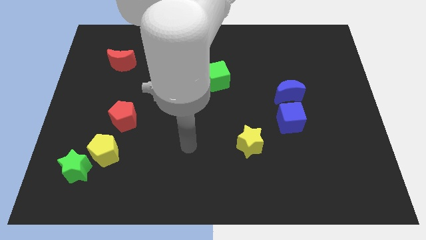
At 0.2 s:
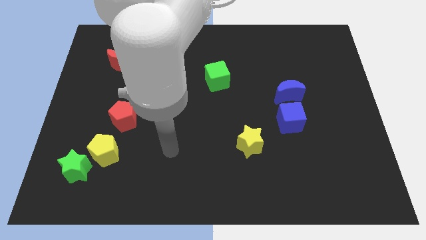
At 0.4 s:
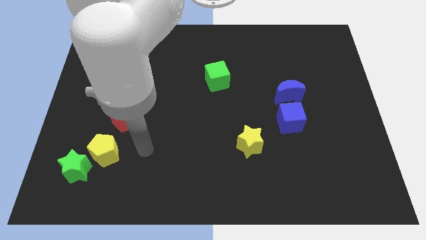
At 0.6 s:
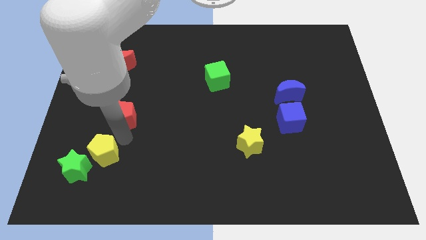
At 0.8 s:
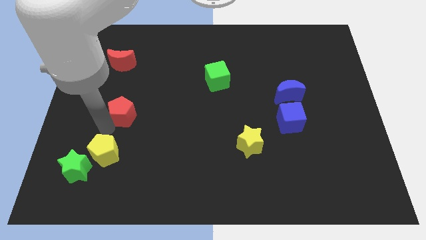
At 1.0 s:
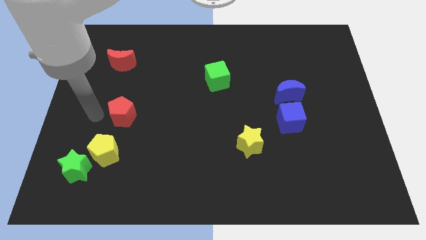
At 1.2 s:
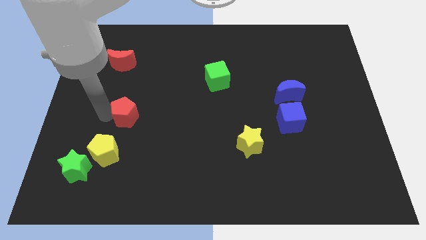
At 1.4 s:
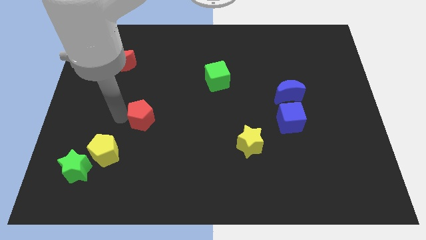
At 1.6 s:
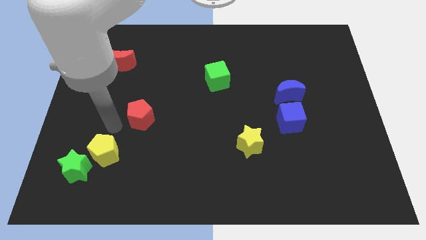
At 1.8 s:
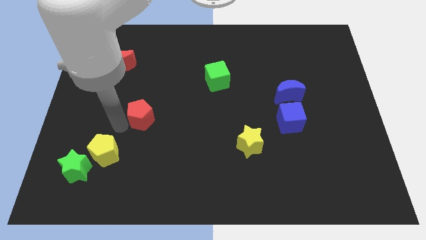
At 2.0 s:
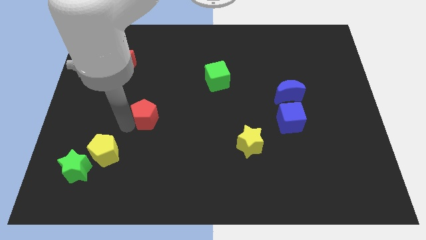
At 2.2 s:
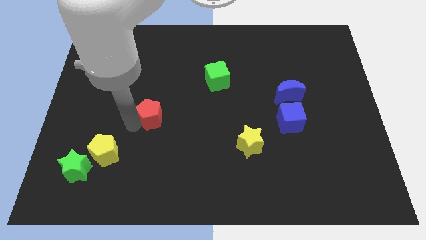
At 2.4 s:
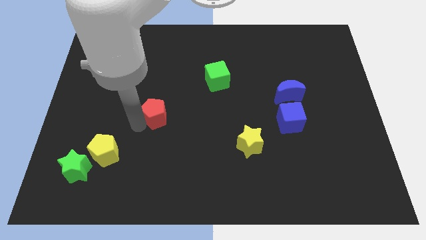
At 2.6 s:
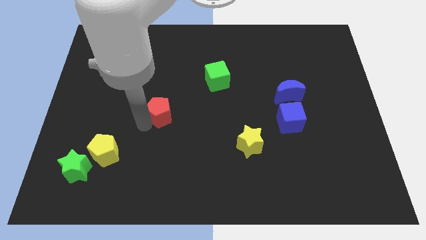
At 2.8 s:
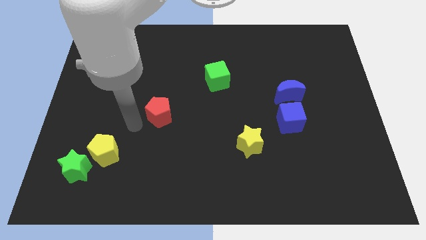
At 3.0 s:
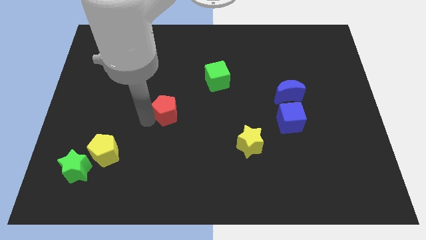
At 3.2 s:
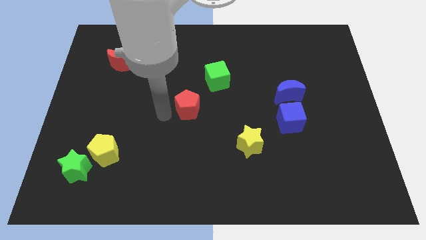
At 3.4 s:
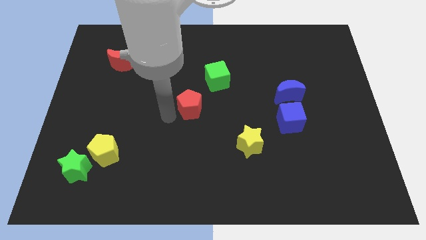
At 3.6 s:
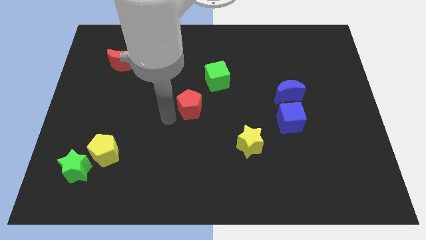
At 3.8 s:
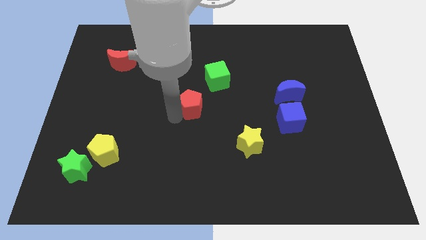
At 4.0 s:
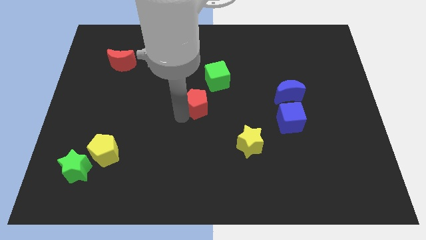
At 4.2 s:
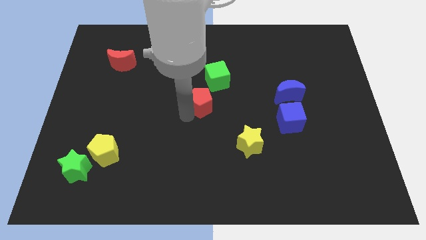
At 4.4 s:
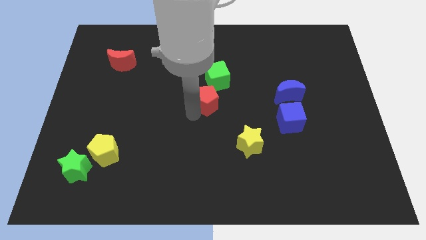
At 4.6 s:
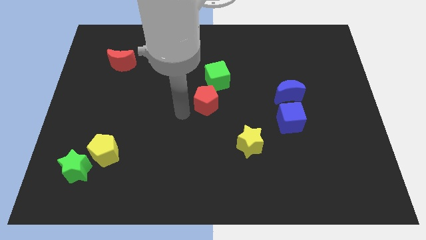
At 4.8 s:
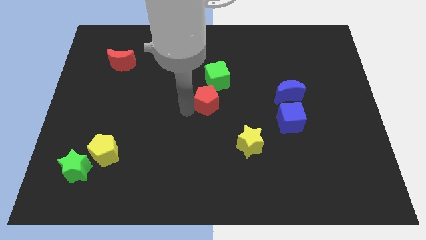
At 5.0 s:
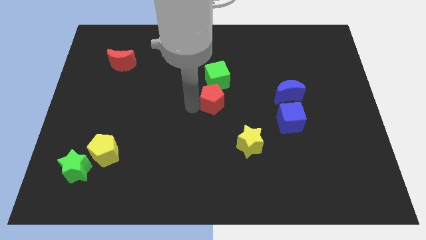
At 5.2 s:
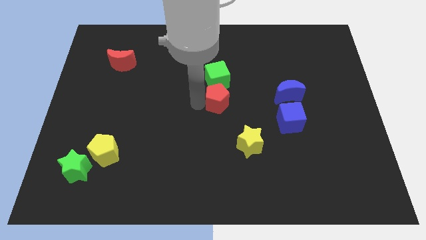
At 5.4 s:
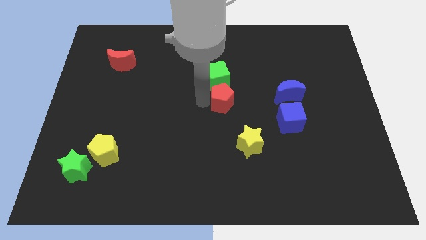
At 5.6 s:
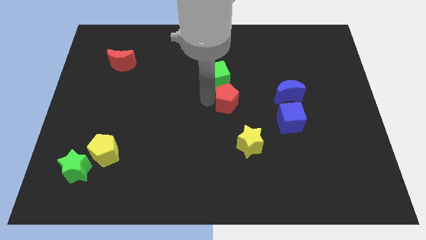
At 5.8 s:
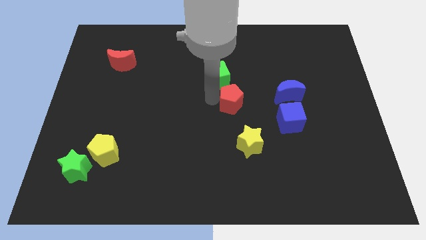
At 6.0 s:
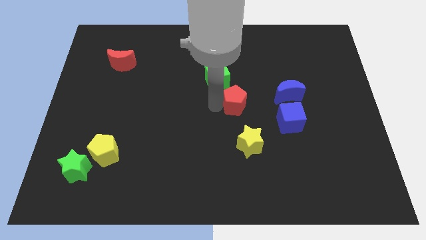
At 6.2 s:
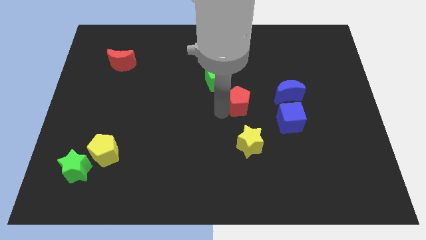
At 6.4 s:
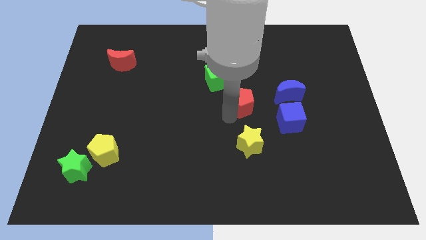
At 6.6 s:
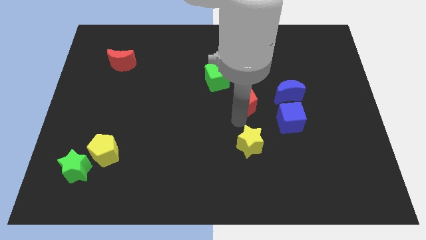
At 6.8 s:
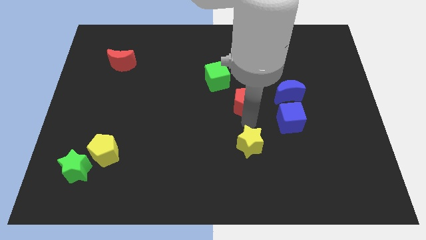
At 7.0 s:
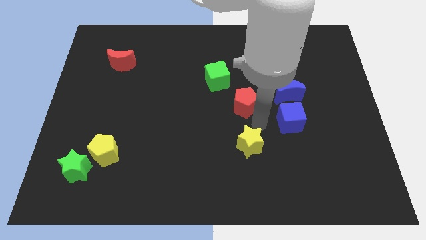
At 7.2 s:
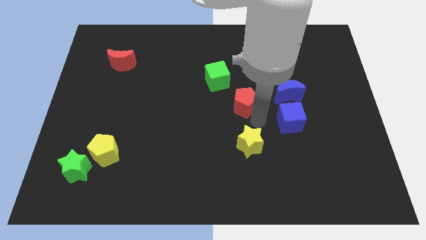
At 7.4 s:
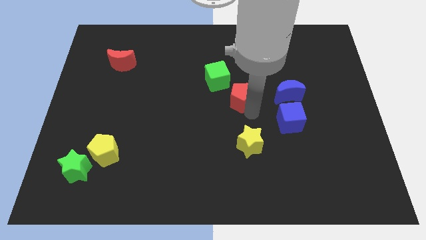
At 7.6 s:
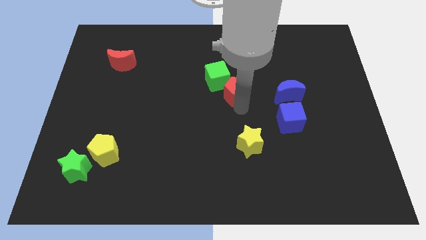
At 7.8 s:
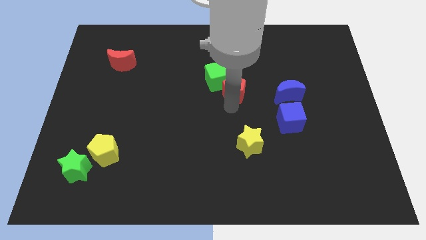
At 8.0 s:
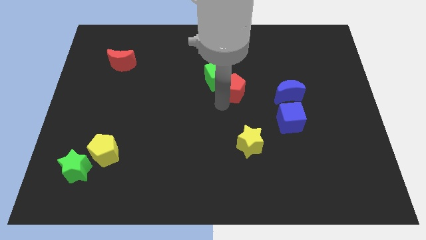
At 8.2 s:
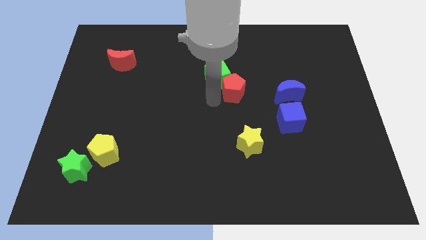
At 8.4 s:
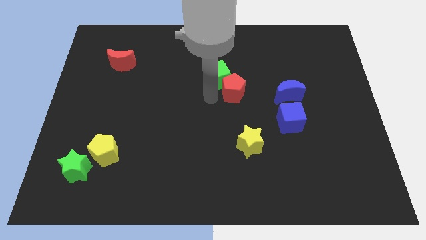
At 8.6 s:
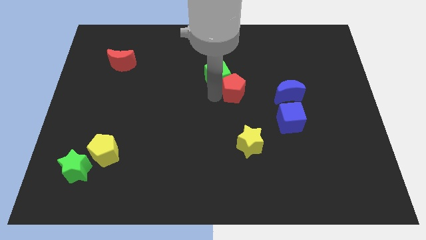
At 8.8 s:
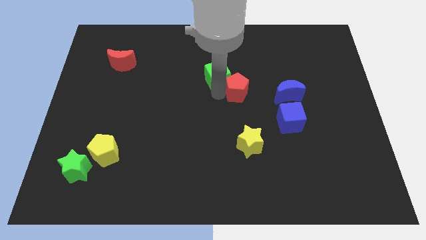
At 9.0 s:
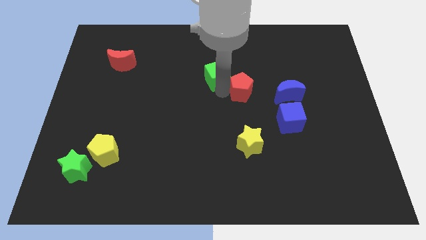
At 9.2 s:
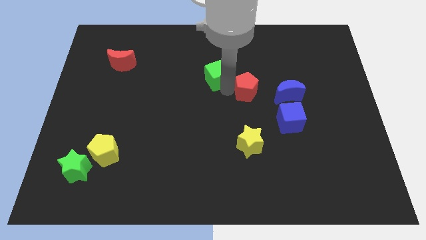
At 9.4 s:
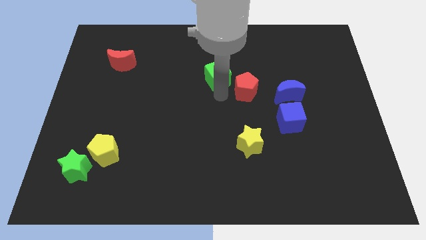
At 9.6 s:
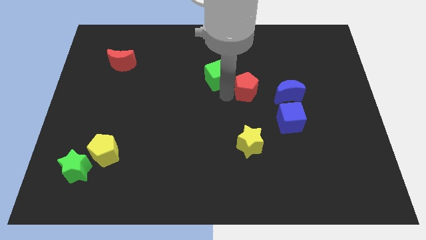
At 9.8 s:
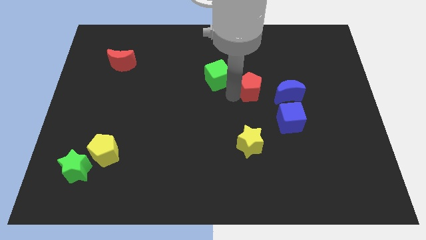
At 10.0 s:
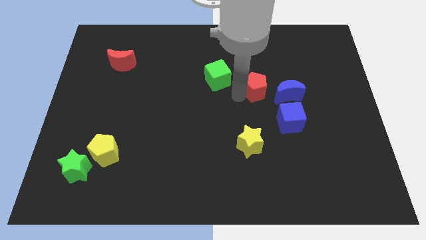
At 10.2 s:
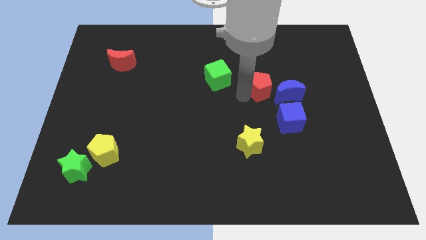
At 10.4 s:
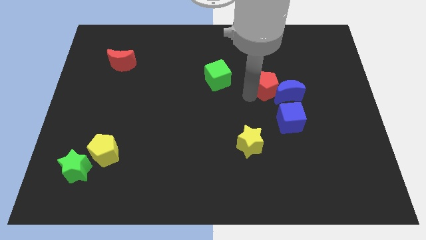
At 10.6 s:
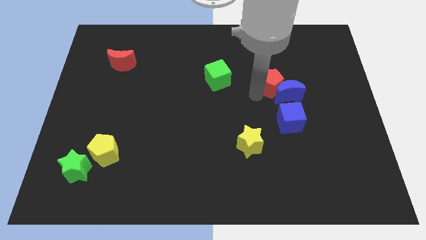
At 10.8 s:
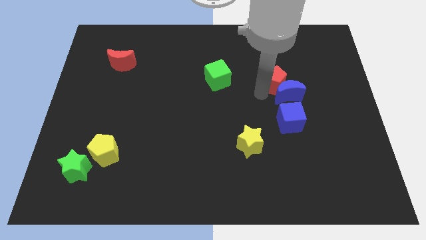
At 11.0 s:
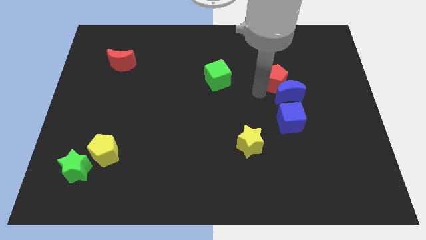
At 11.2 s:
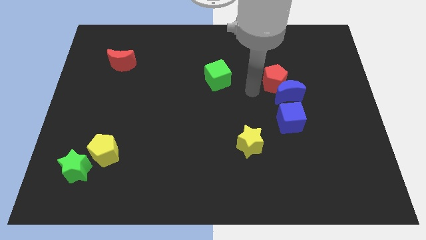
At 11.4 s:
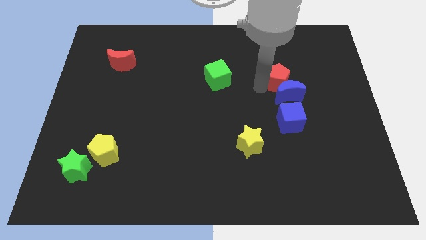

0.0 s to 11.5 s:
slide the red pentagon diagonally up and to the right of the blue moon

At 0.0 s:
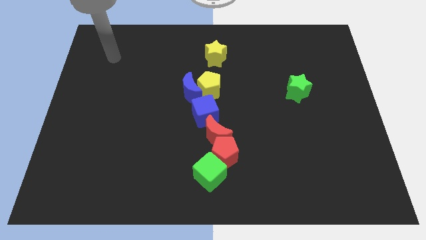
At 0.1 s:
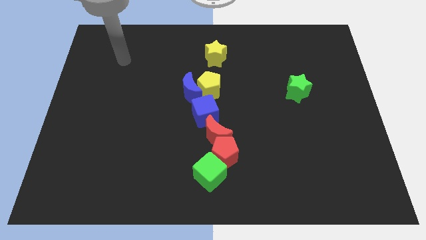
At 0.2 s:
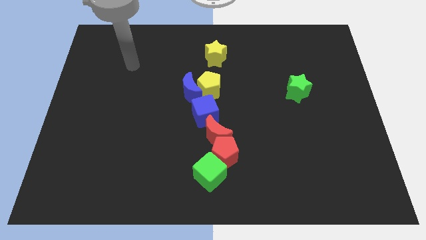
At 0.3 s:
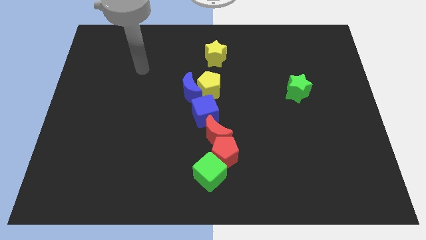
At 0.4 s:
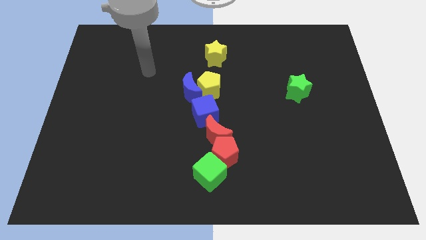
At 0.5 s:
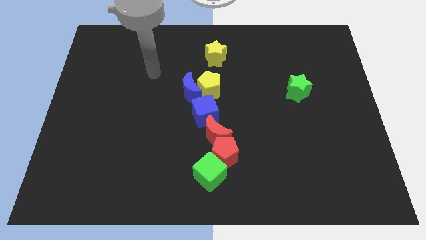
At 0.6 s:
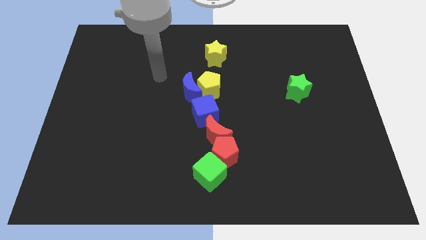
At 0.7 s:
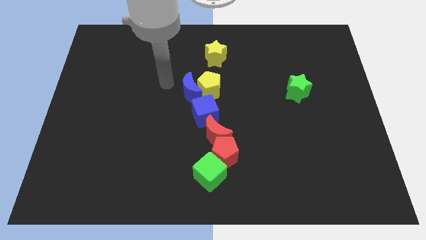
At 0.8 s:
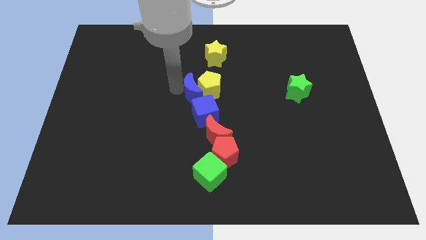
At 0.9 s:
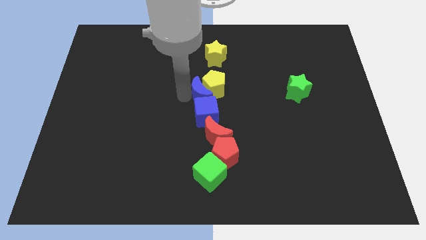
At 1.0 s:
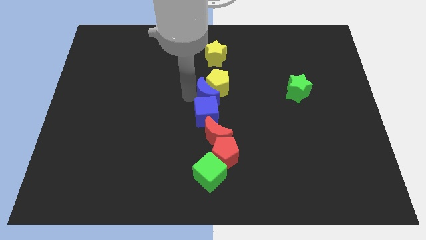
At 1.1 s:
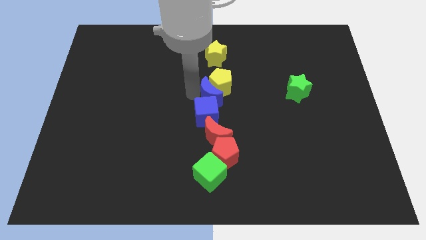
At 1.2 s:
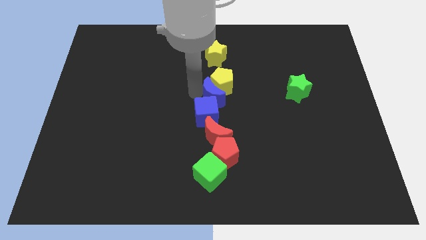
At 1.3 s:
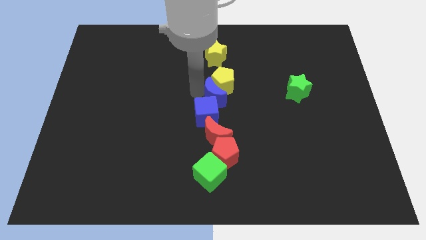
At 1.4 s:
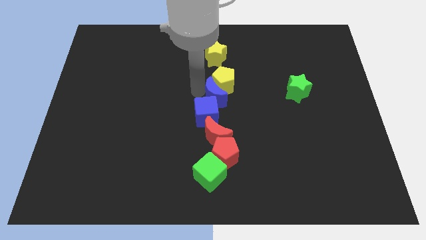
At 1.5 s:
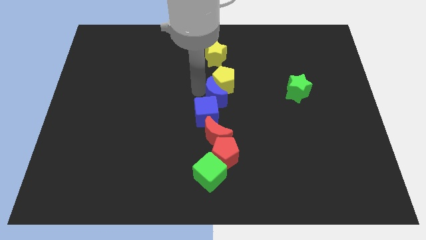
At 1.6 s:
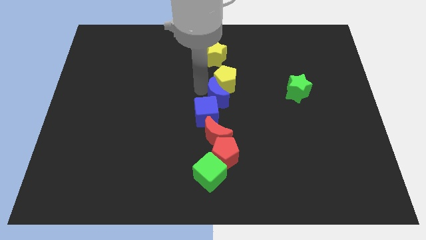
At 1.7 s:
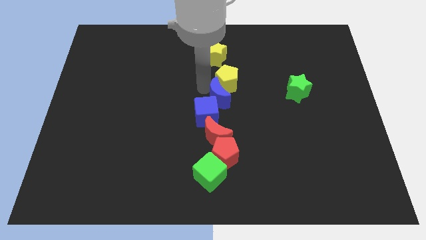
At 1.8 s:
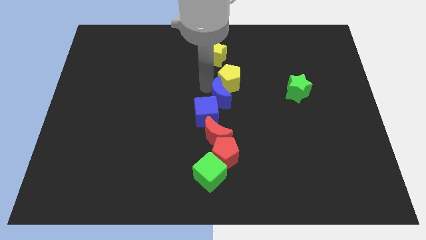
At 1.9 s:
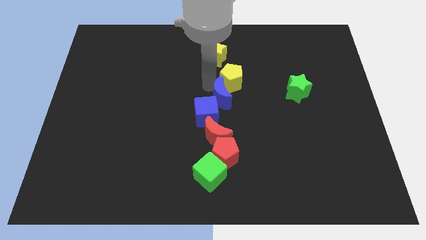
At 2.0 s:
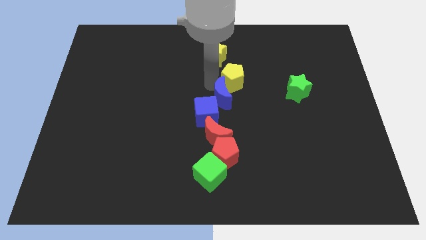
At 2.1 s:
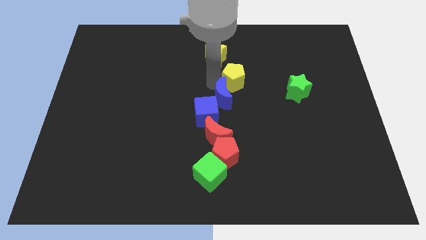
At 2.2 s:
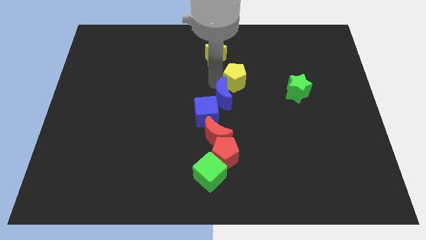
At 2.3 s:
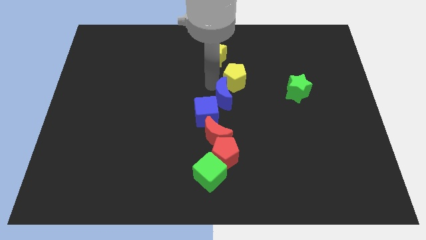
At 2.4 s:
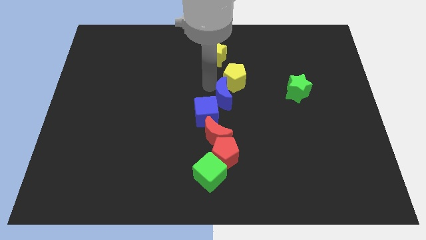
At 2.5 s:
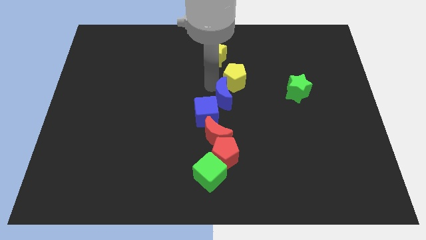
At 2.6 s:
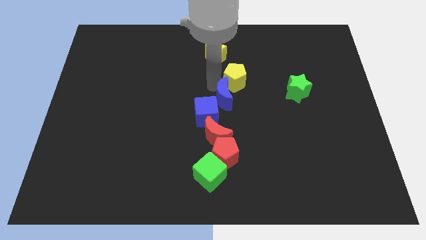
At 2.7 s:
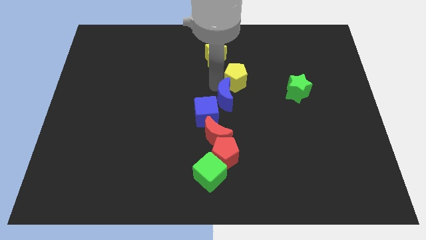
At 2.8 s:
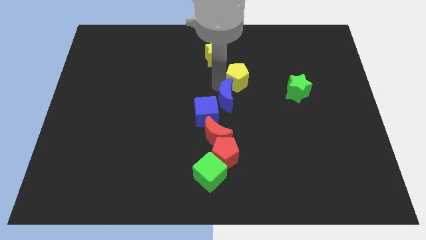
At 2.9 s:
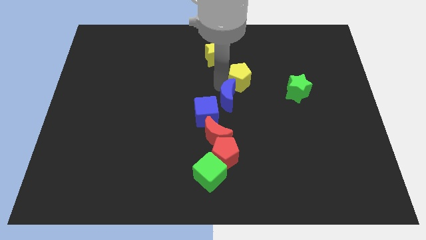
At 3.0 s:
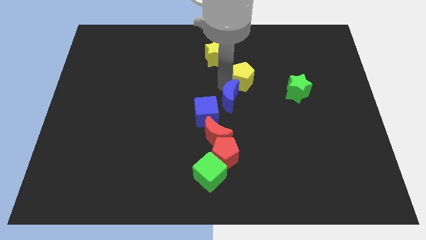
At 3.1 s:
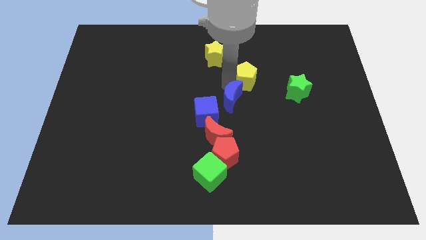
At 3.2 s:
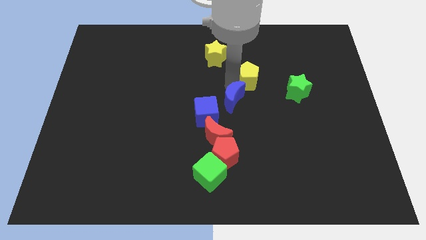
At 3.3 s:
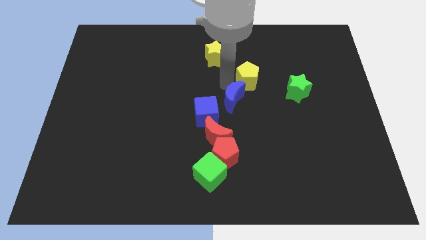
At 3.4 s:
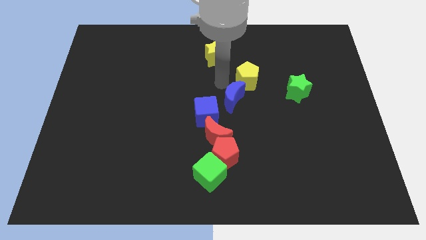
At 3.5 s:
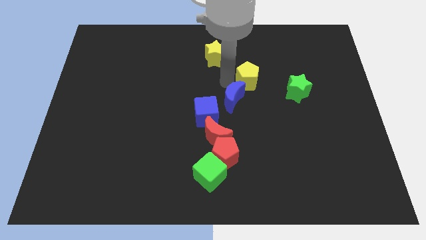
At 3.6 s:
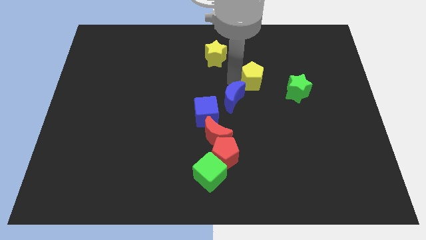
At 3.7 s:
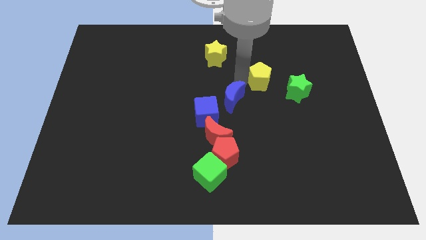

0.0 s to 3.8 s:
push the yellow pentagon to the top left side of the green star
